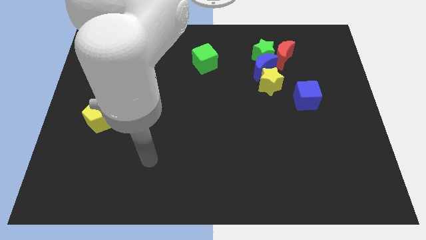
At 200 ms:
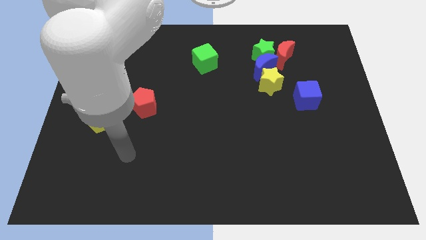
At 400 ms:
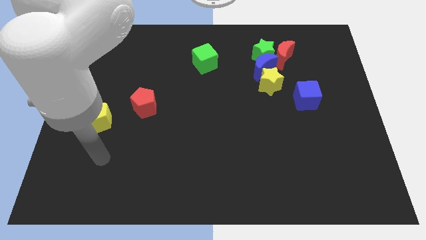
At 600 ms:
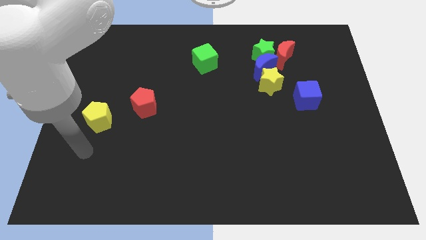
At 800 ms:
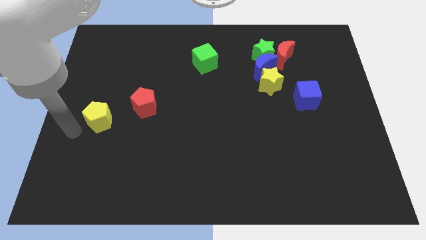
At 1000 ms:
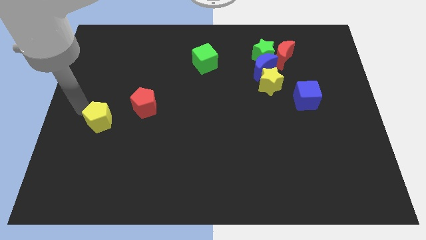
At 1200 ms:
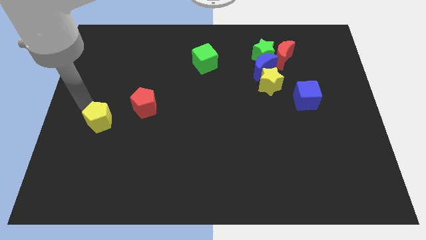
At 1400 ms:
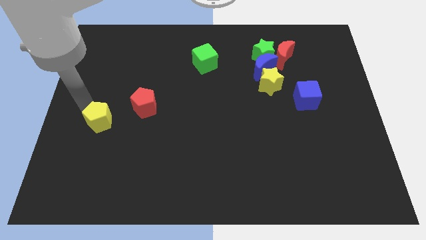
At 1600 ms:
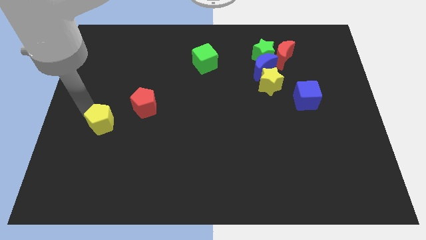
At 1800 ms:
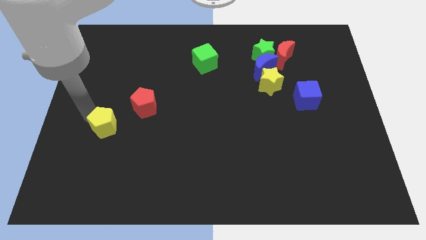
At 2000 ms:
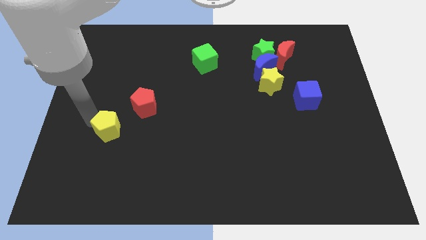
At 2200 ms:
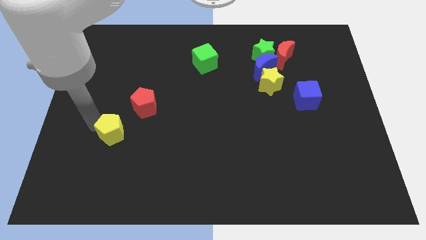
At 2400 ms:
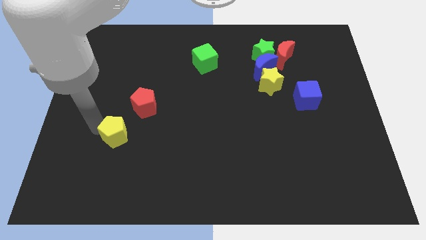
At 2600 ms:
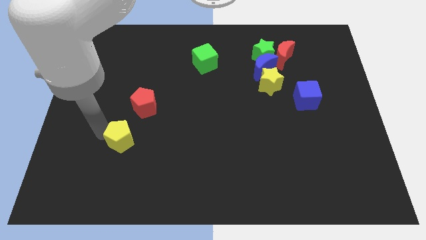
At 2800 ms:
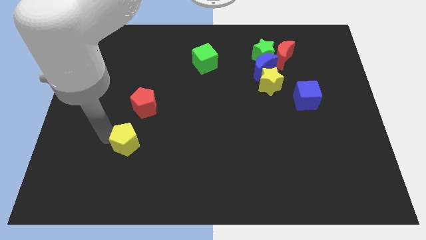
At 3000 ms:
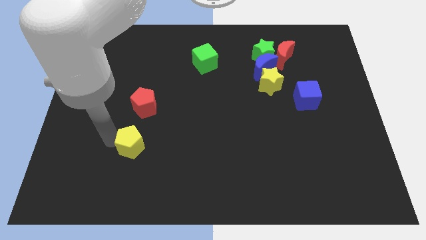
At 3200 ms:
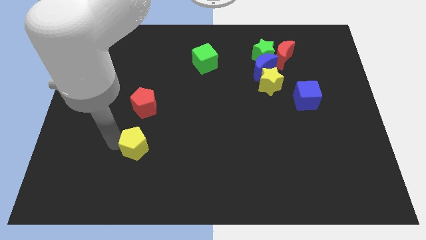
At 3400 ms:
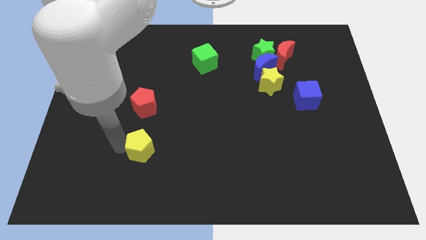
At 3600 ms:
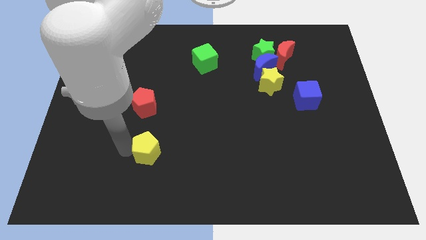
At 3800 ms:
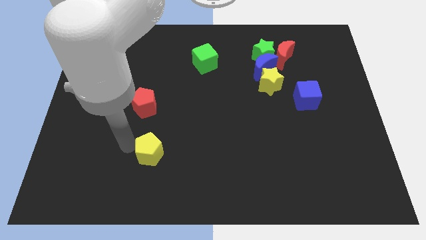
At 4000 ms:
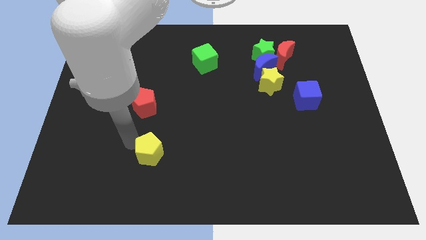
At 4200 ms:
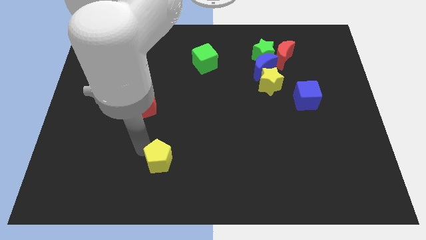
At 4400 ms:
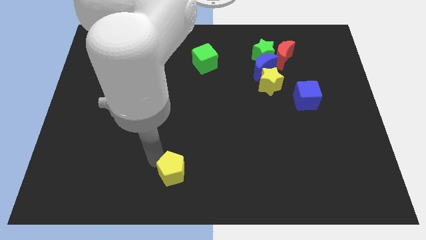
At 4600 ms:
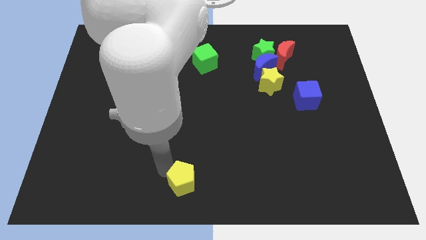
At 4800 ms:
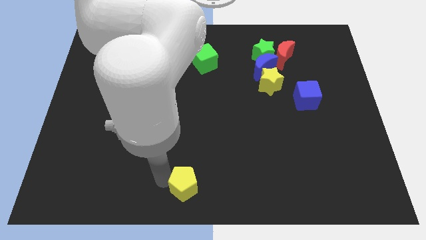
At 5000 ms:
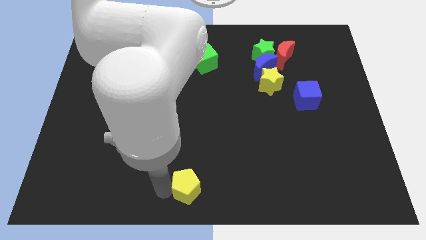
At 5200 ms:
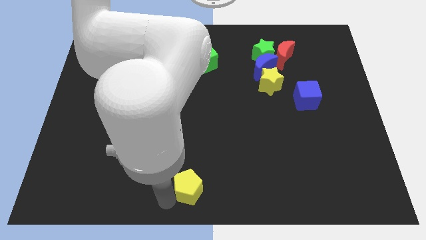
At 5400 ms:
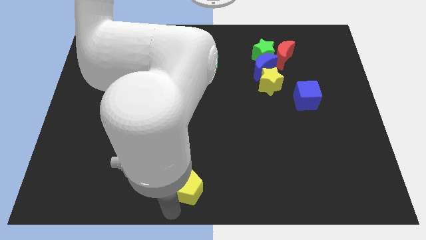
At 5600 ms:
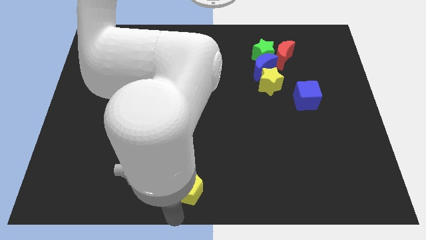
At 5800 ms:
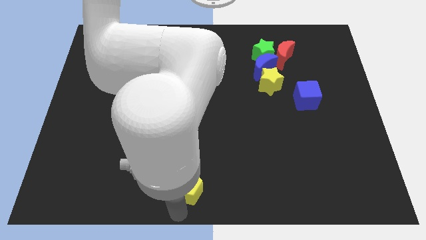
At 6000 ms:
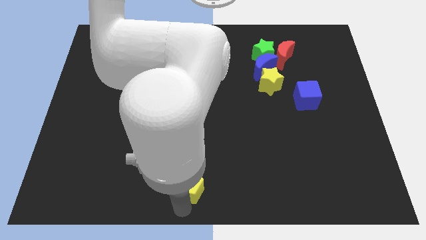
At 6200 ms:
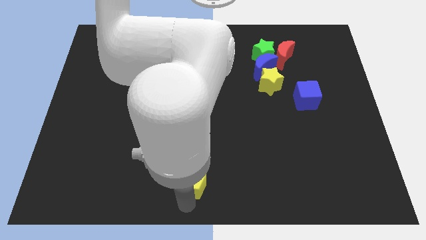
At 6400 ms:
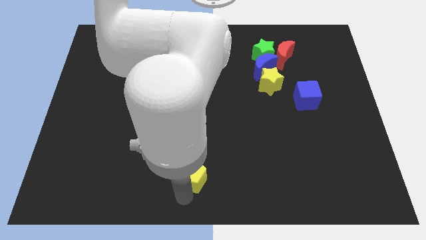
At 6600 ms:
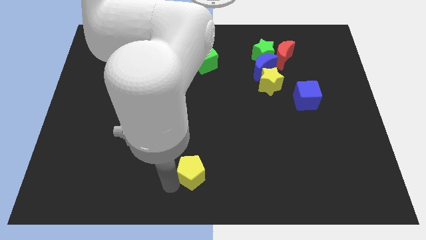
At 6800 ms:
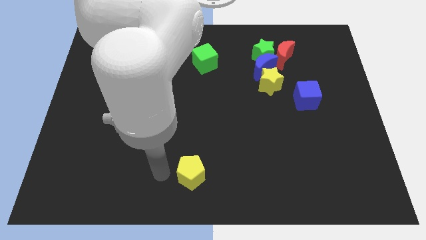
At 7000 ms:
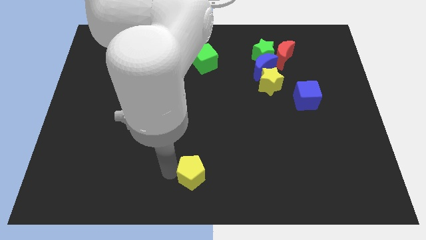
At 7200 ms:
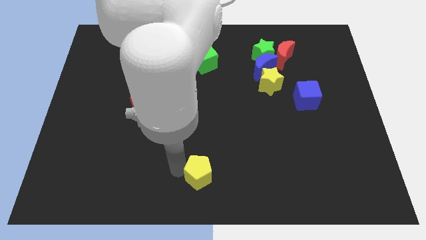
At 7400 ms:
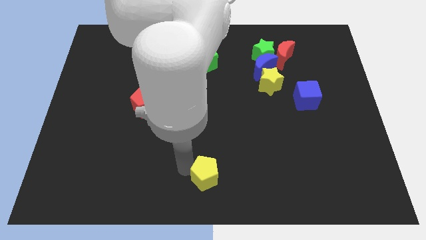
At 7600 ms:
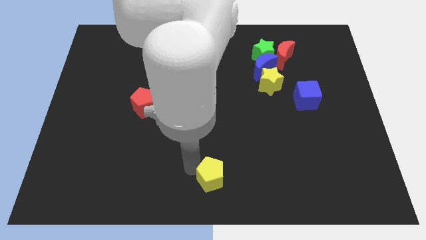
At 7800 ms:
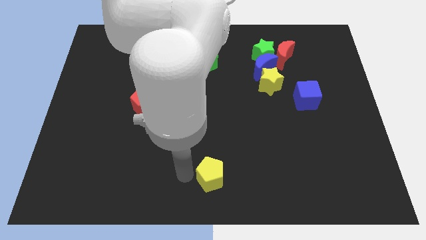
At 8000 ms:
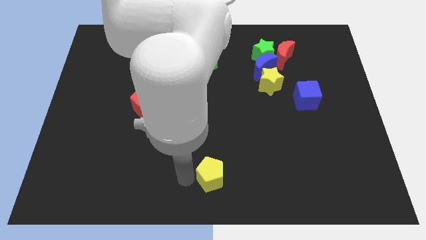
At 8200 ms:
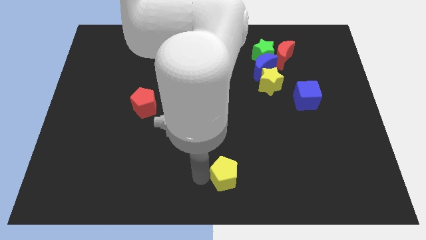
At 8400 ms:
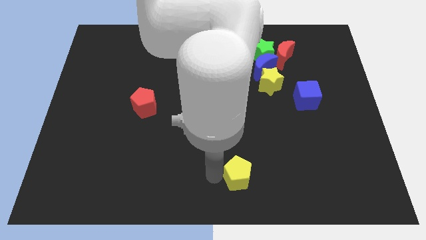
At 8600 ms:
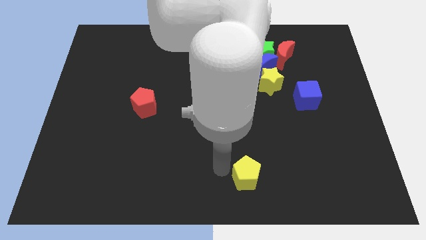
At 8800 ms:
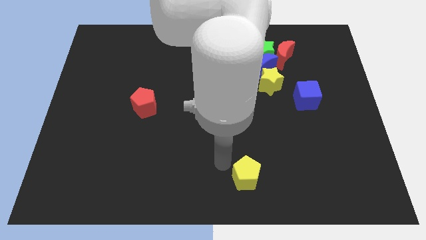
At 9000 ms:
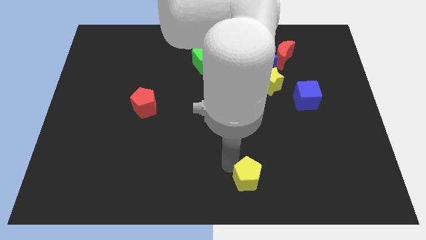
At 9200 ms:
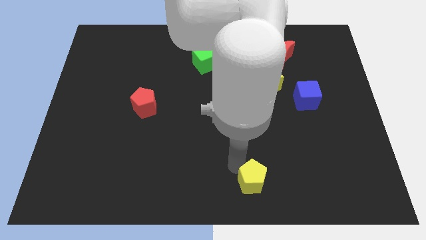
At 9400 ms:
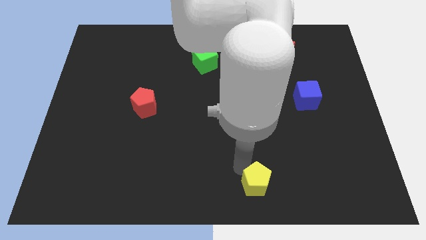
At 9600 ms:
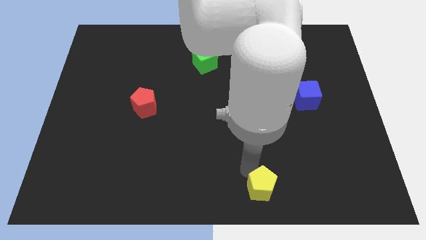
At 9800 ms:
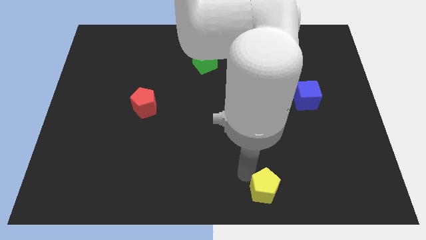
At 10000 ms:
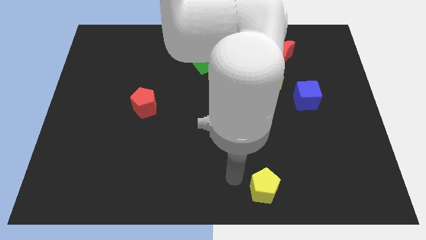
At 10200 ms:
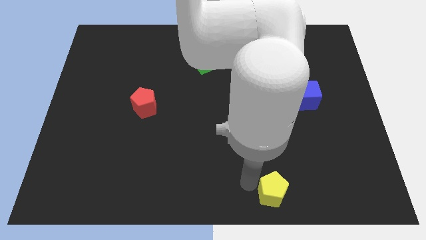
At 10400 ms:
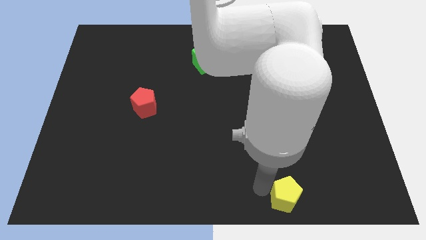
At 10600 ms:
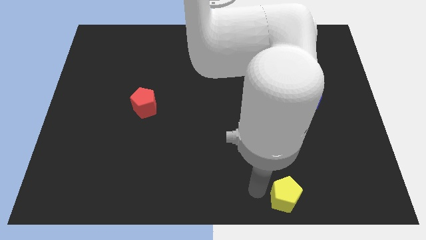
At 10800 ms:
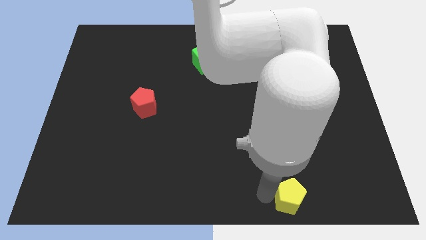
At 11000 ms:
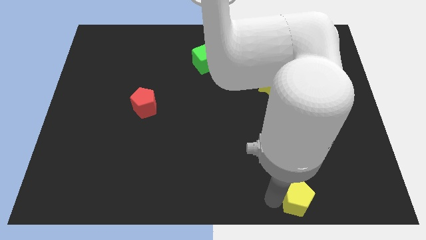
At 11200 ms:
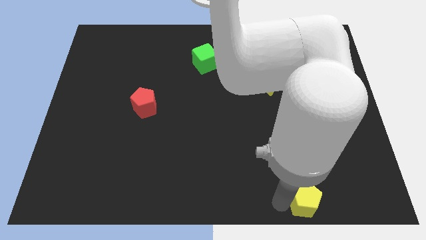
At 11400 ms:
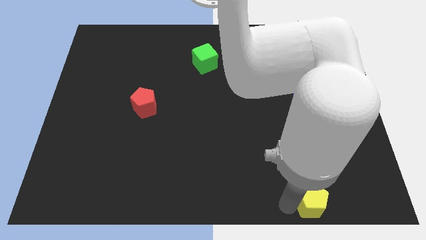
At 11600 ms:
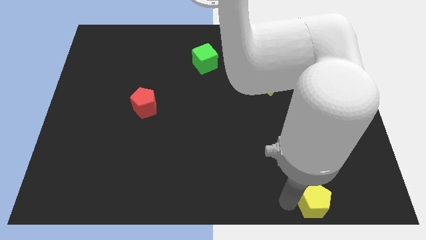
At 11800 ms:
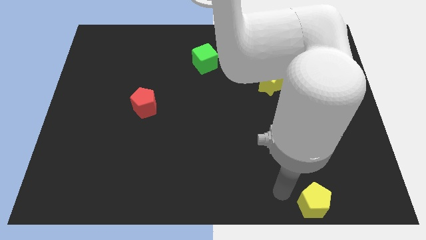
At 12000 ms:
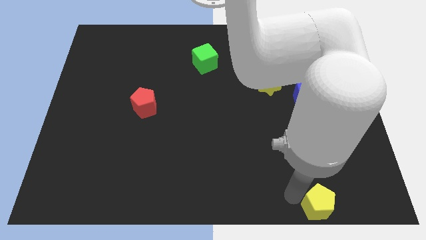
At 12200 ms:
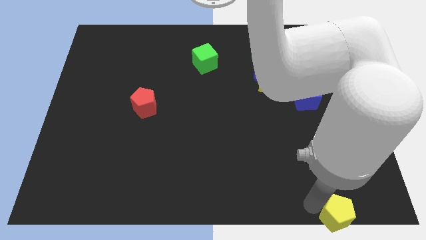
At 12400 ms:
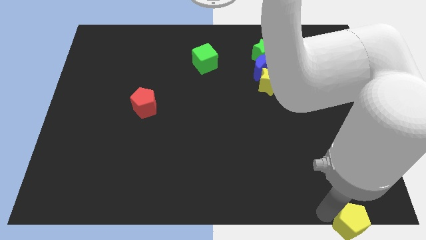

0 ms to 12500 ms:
slide the yellow pentagon to the bottom right corner

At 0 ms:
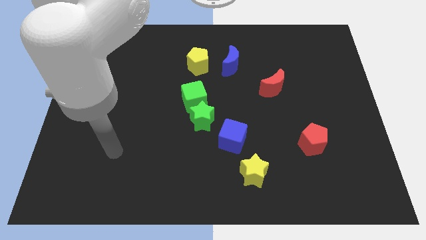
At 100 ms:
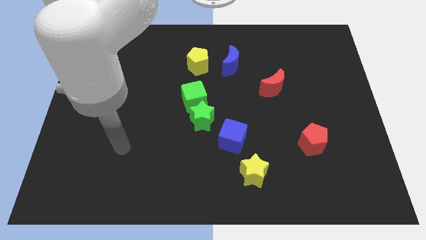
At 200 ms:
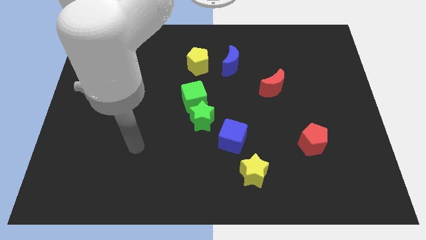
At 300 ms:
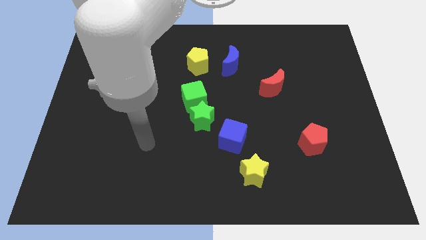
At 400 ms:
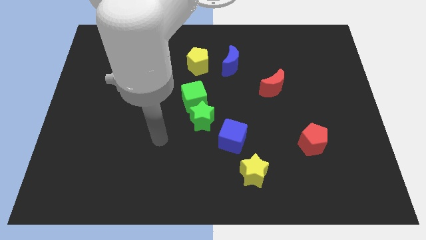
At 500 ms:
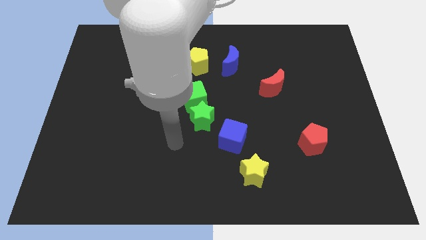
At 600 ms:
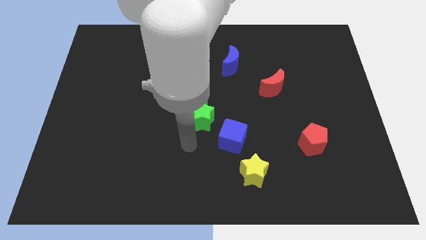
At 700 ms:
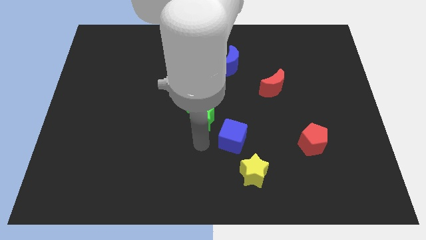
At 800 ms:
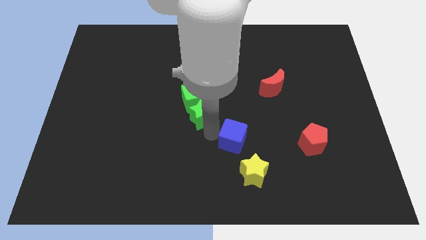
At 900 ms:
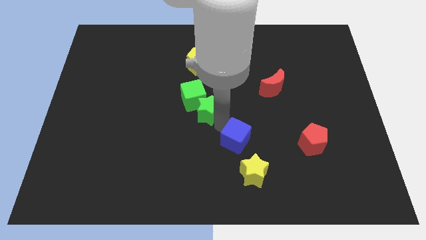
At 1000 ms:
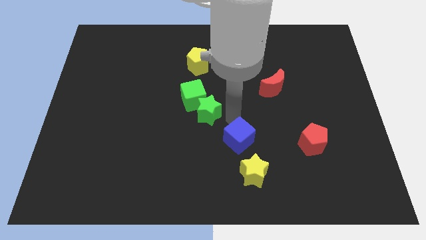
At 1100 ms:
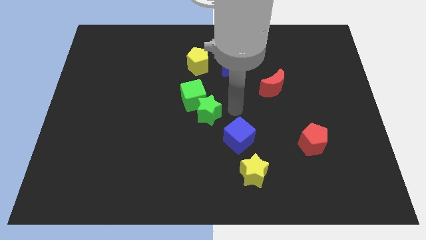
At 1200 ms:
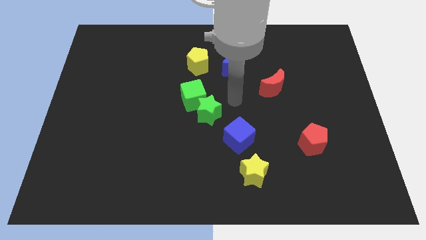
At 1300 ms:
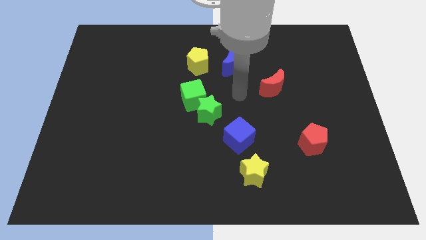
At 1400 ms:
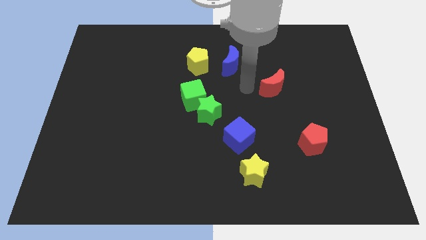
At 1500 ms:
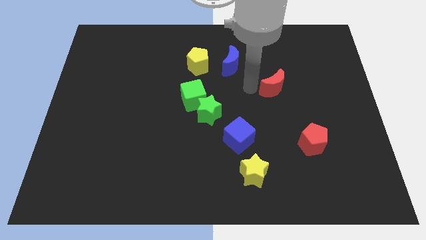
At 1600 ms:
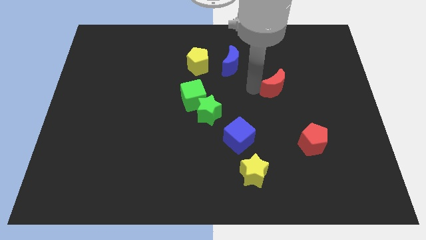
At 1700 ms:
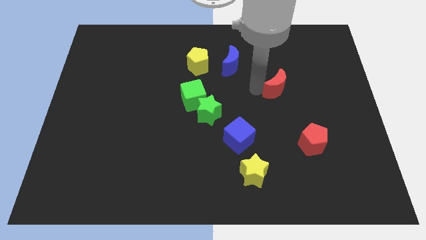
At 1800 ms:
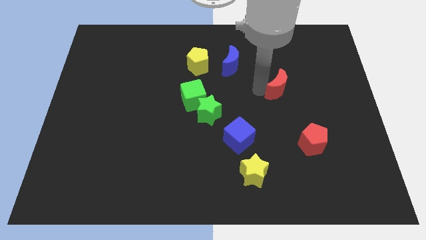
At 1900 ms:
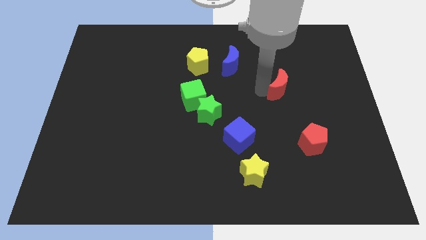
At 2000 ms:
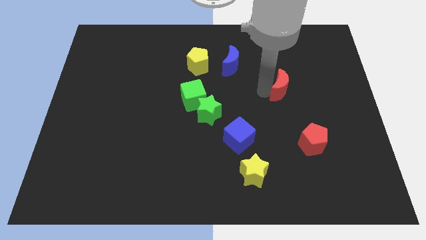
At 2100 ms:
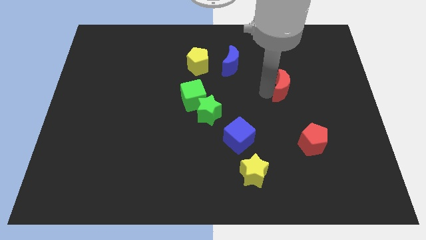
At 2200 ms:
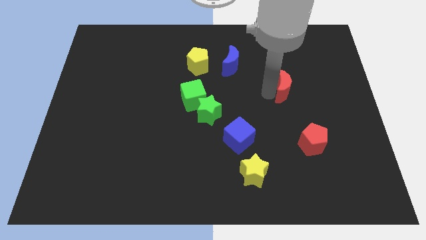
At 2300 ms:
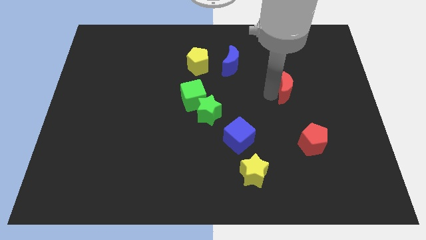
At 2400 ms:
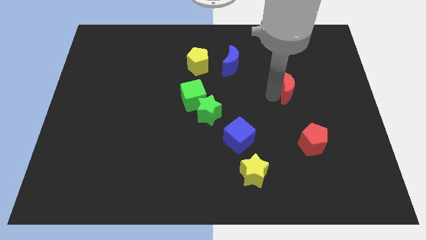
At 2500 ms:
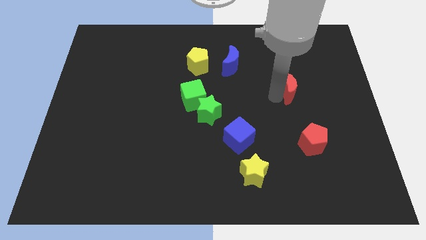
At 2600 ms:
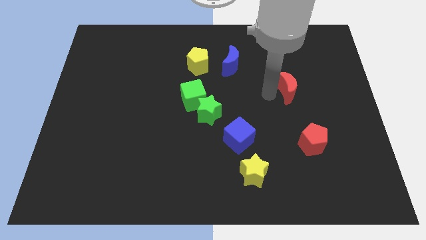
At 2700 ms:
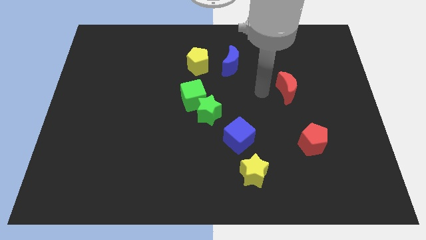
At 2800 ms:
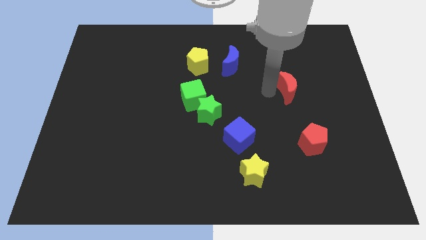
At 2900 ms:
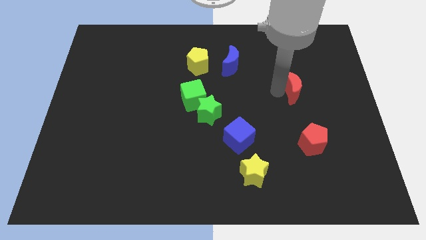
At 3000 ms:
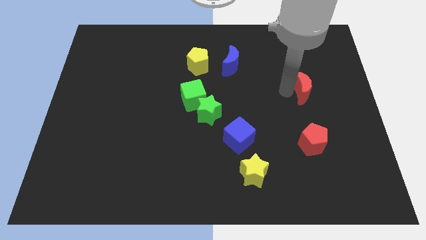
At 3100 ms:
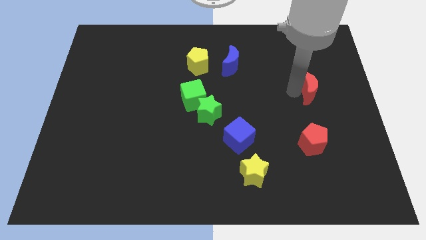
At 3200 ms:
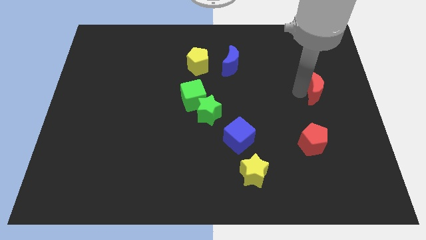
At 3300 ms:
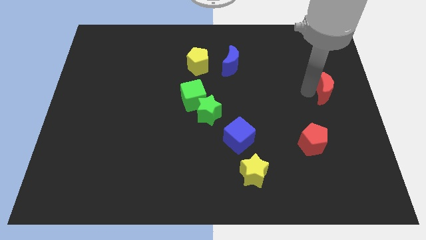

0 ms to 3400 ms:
put the red moon to the center right
